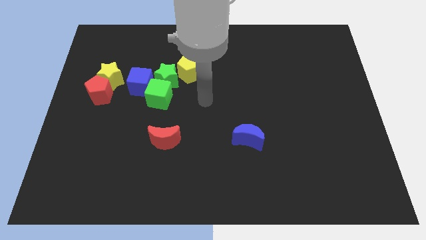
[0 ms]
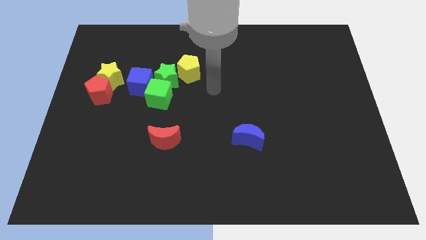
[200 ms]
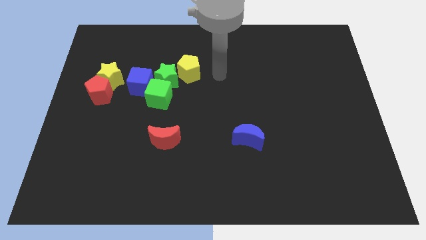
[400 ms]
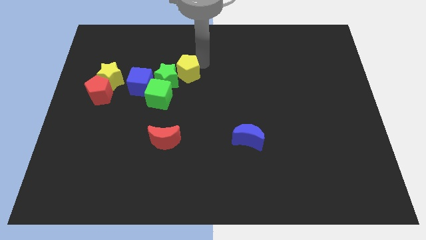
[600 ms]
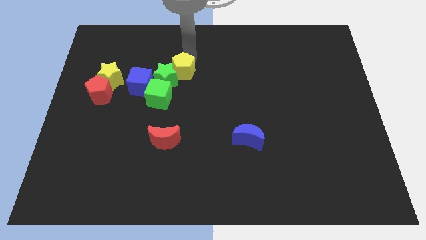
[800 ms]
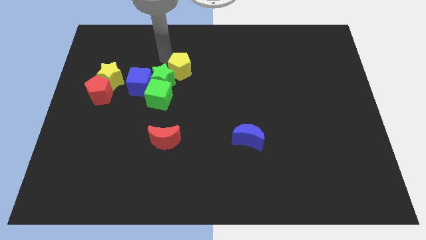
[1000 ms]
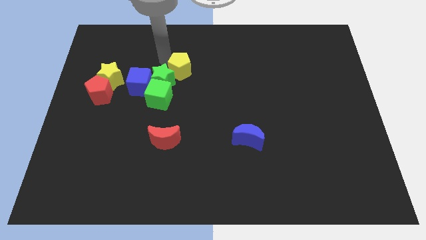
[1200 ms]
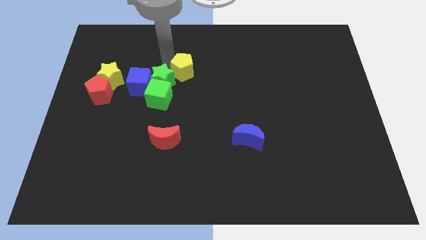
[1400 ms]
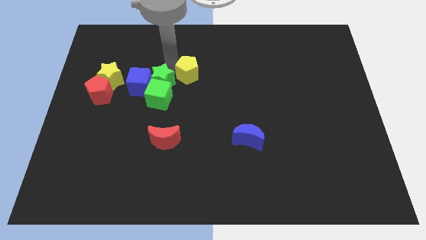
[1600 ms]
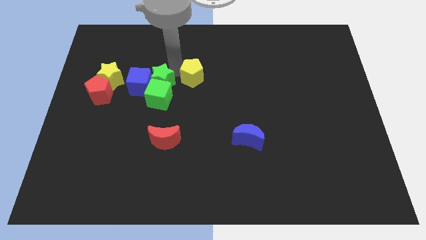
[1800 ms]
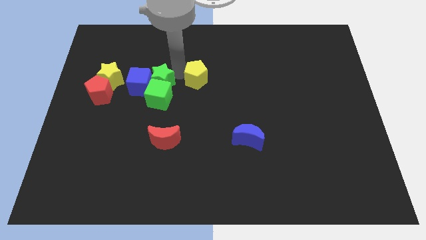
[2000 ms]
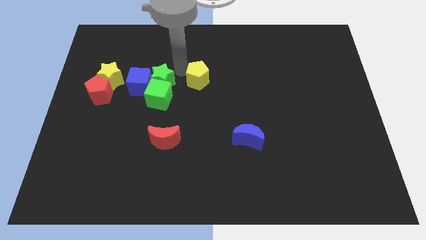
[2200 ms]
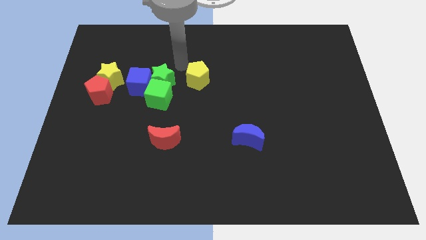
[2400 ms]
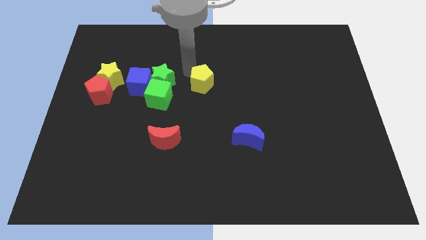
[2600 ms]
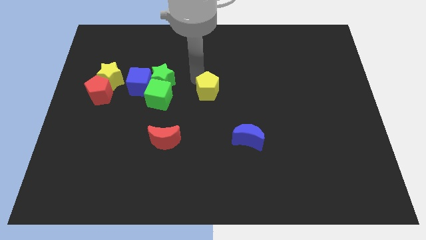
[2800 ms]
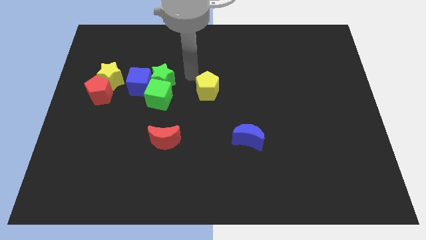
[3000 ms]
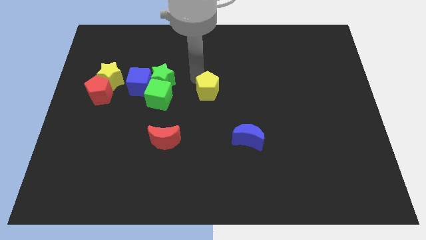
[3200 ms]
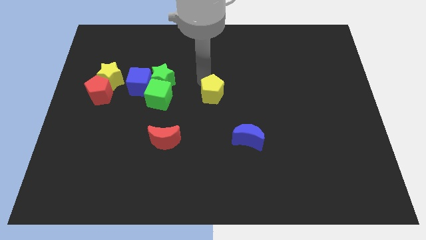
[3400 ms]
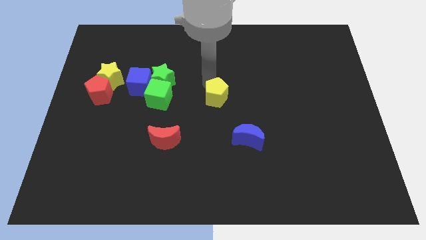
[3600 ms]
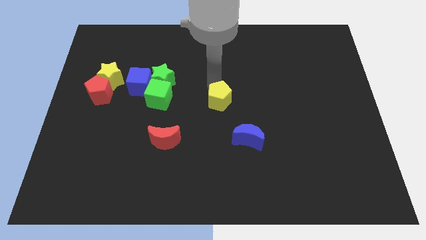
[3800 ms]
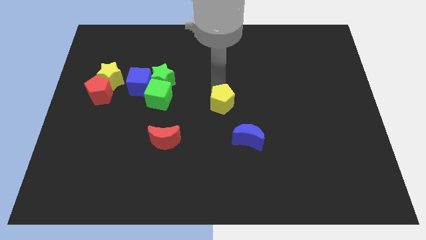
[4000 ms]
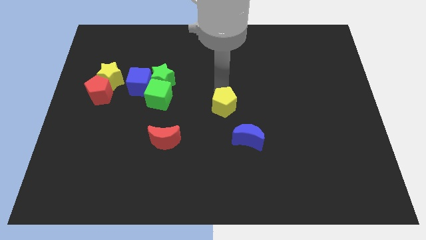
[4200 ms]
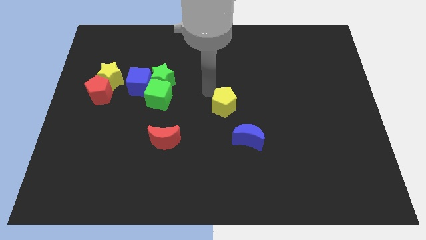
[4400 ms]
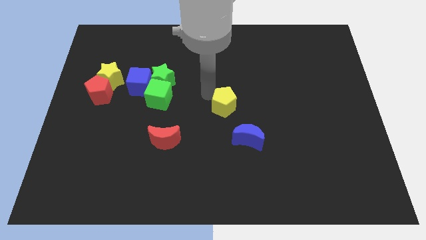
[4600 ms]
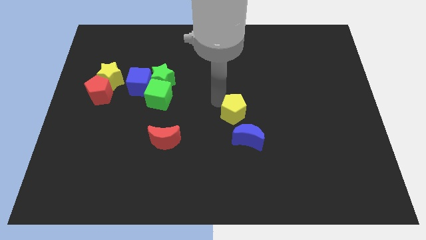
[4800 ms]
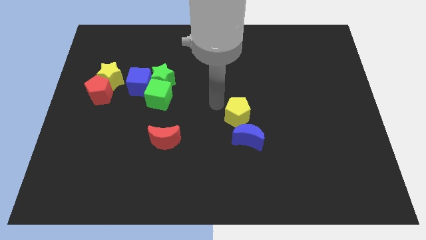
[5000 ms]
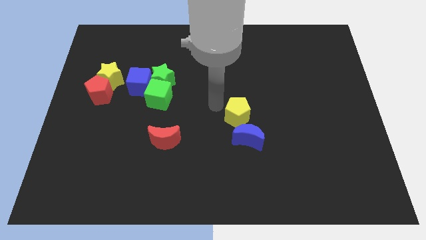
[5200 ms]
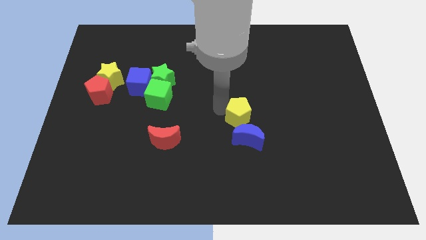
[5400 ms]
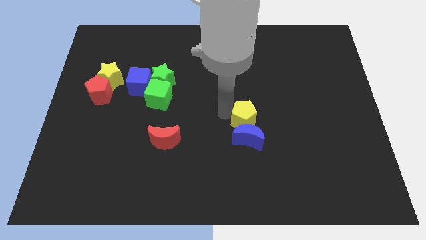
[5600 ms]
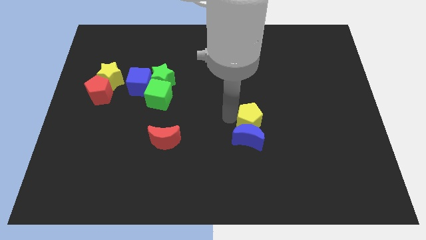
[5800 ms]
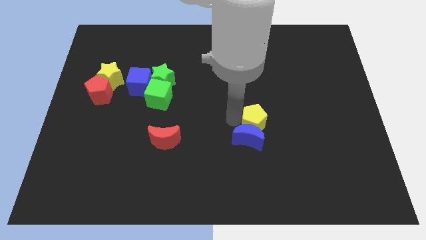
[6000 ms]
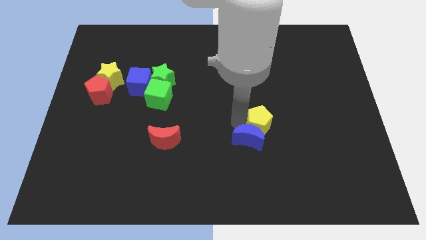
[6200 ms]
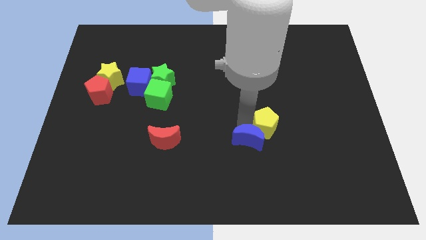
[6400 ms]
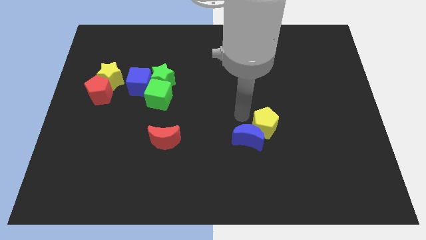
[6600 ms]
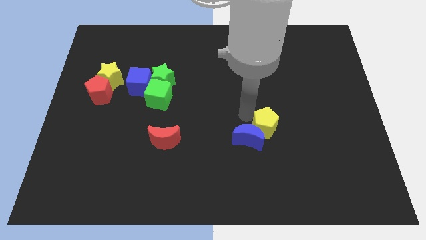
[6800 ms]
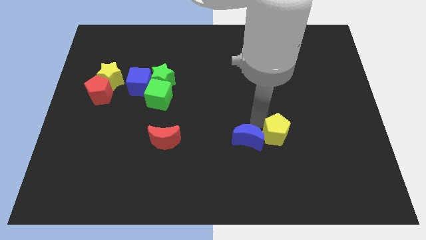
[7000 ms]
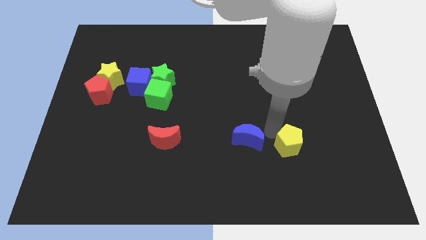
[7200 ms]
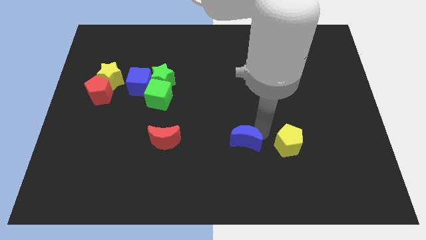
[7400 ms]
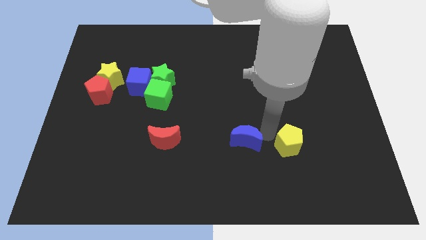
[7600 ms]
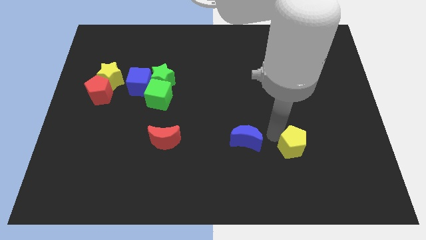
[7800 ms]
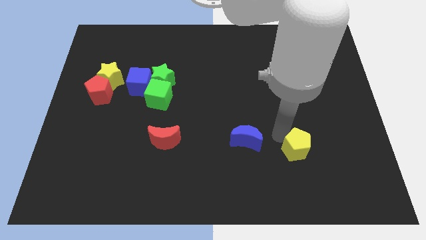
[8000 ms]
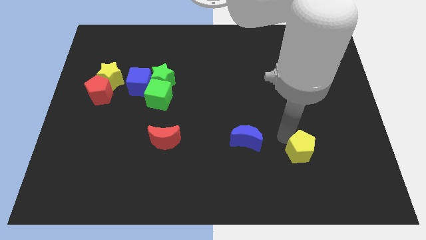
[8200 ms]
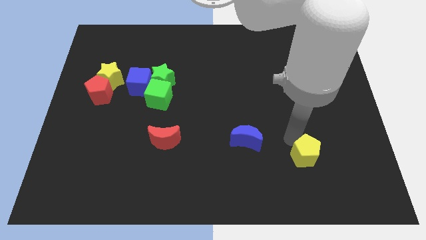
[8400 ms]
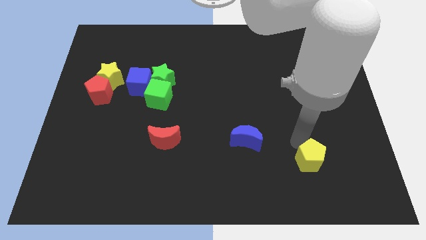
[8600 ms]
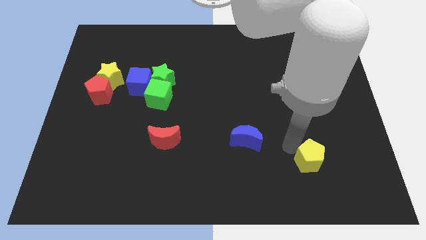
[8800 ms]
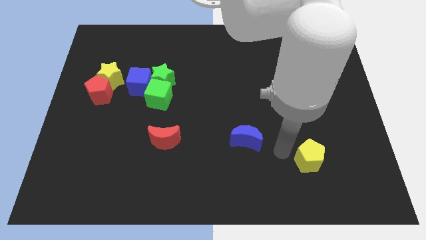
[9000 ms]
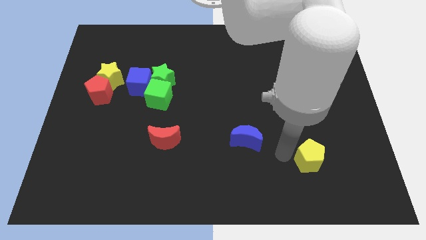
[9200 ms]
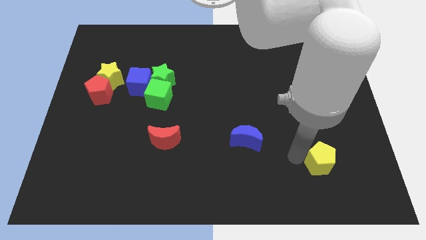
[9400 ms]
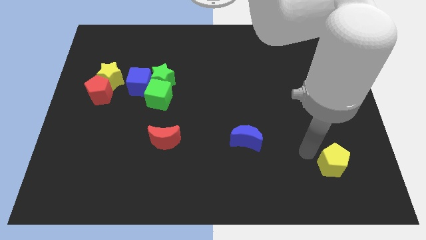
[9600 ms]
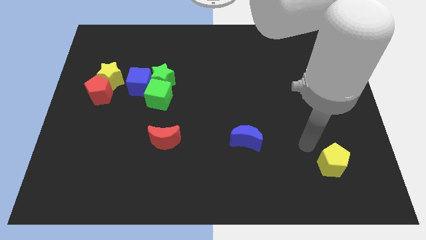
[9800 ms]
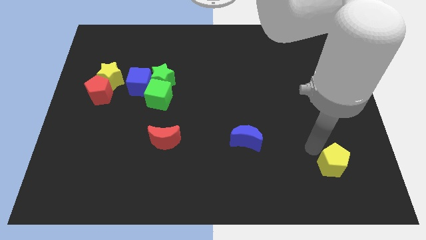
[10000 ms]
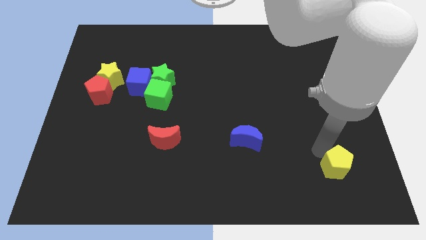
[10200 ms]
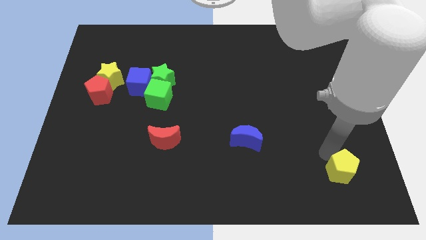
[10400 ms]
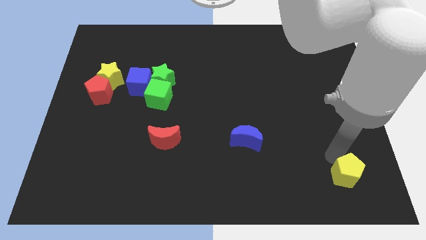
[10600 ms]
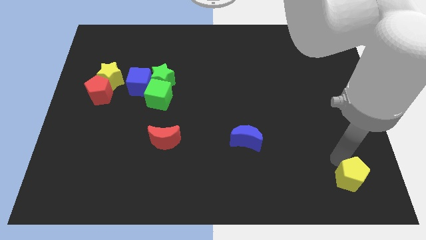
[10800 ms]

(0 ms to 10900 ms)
slide the yellow pentagon to the bottom right corner

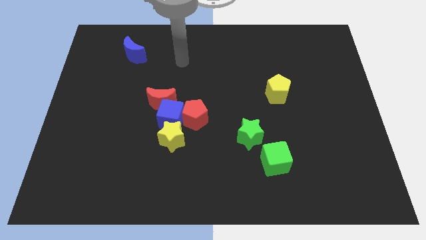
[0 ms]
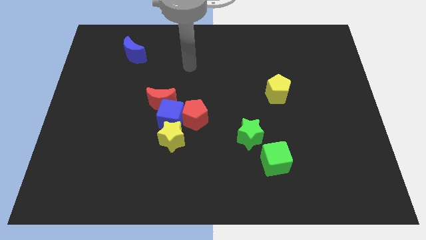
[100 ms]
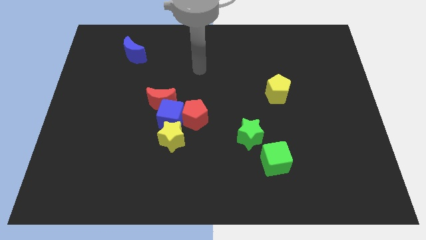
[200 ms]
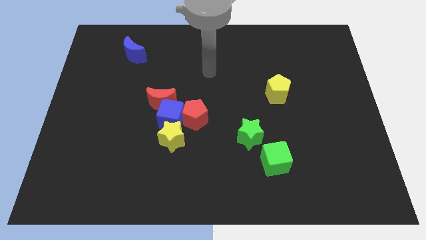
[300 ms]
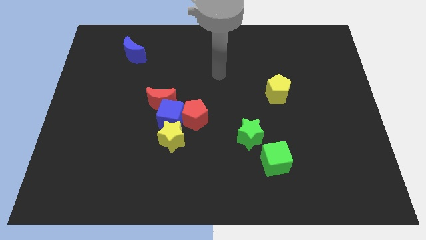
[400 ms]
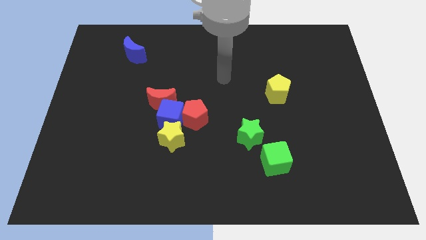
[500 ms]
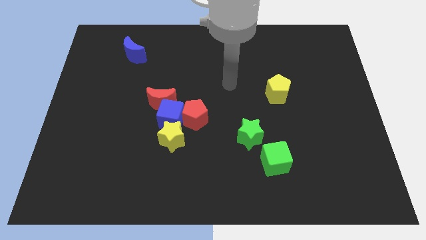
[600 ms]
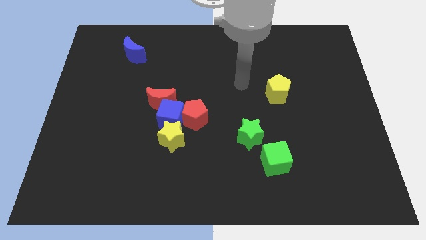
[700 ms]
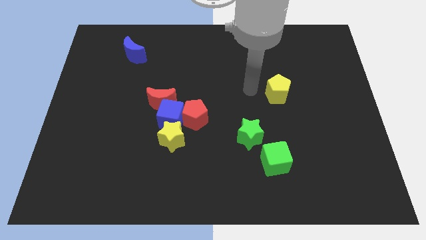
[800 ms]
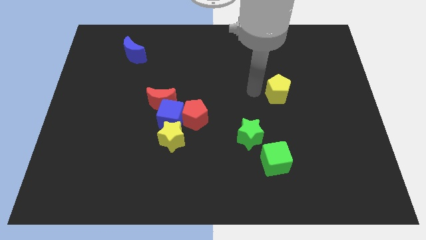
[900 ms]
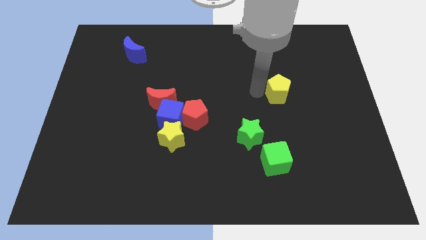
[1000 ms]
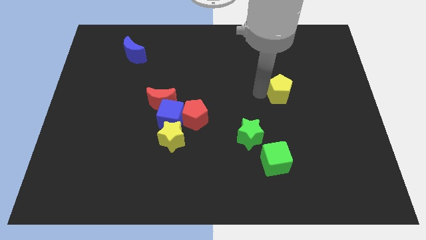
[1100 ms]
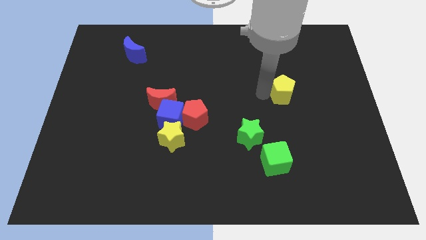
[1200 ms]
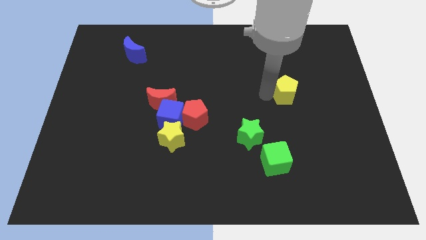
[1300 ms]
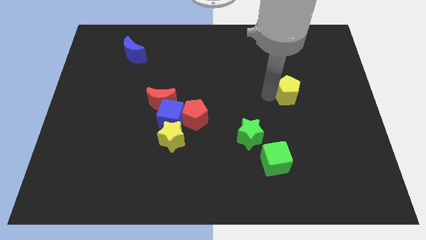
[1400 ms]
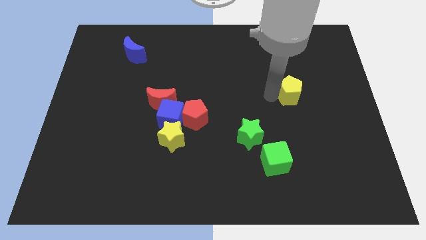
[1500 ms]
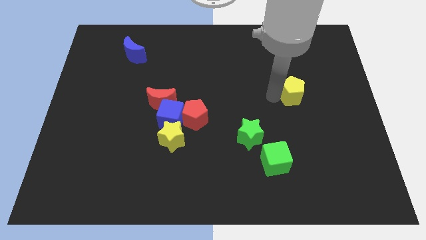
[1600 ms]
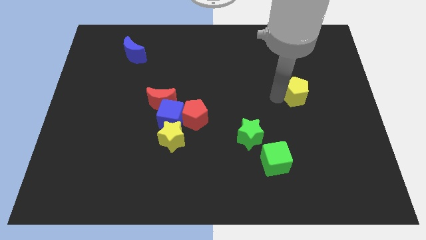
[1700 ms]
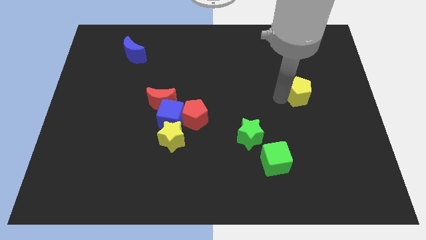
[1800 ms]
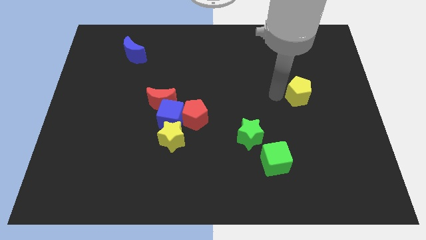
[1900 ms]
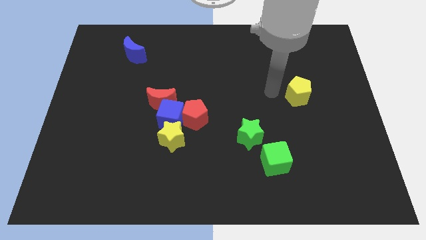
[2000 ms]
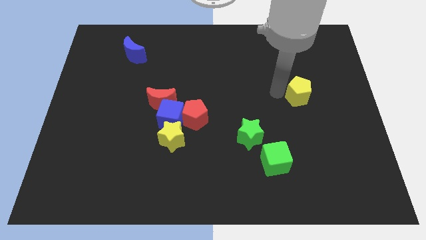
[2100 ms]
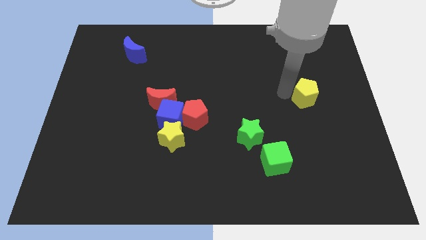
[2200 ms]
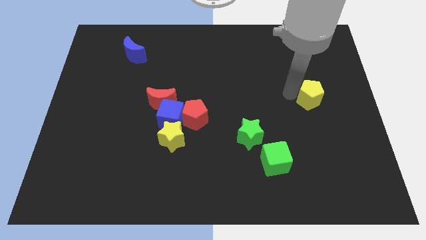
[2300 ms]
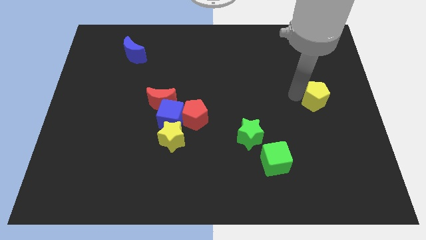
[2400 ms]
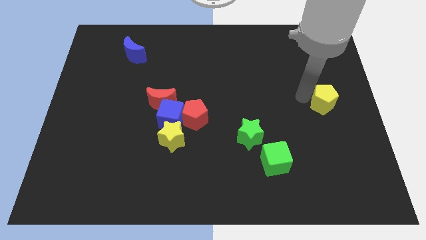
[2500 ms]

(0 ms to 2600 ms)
slide the yellow pentagon to the right side of the board
